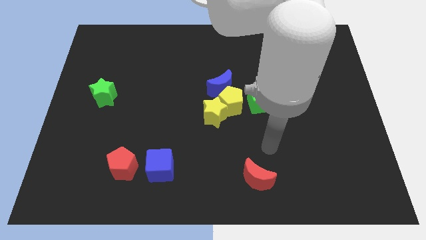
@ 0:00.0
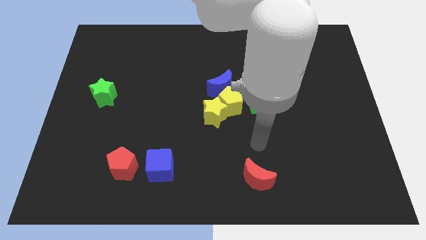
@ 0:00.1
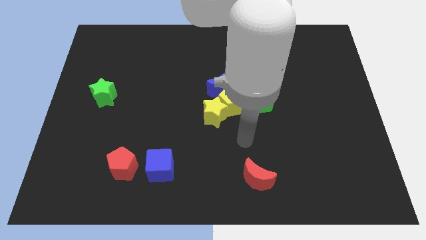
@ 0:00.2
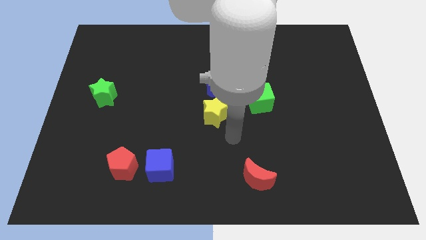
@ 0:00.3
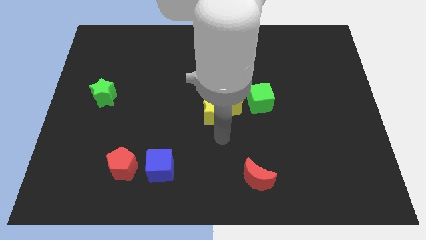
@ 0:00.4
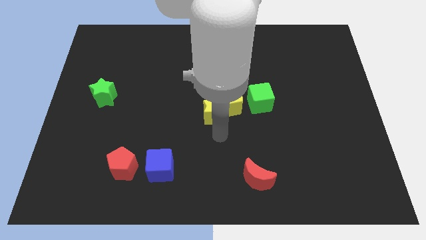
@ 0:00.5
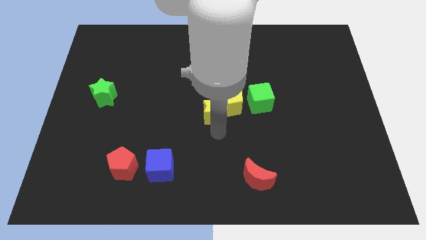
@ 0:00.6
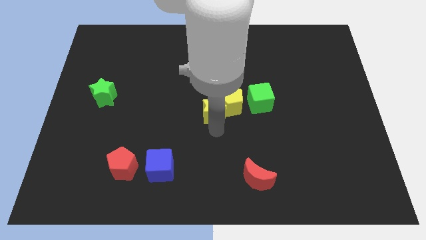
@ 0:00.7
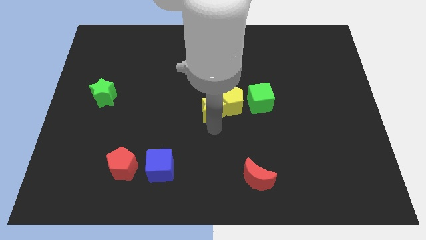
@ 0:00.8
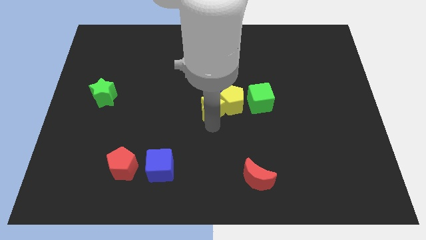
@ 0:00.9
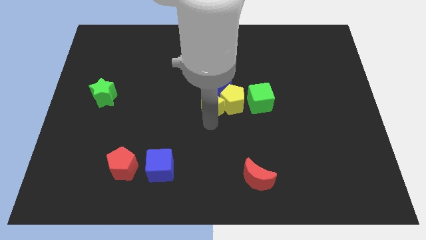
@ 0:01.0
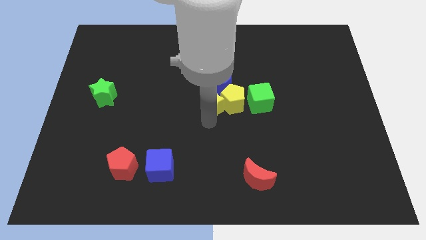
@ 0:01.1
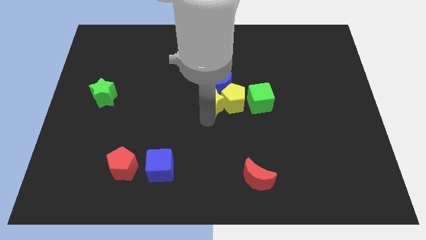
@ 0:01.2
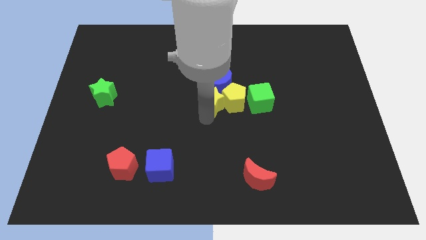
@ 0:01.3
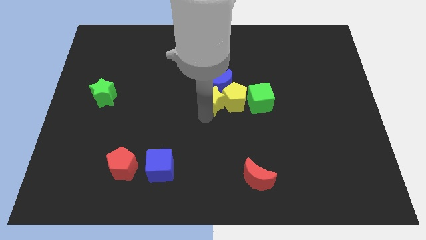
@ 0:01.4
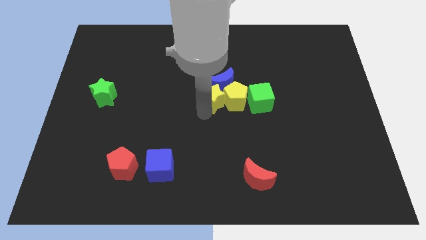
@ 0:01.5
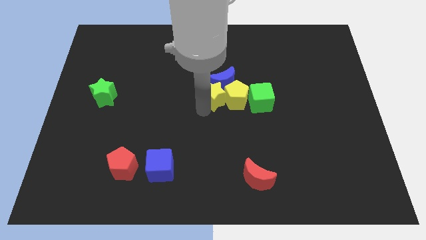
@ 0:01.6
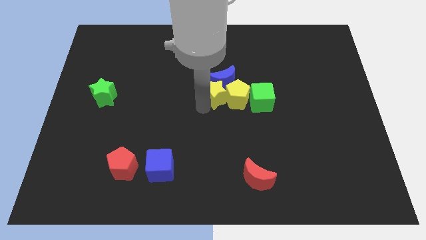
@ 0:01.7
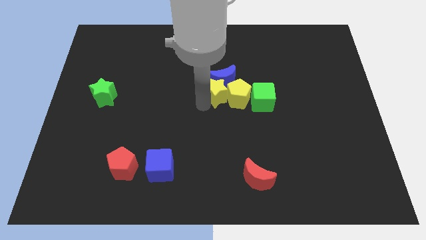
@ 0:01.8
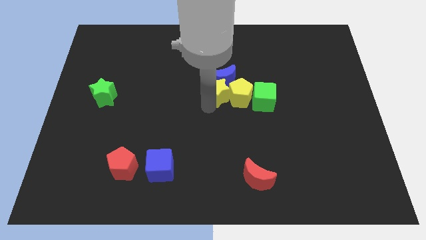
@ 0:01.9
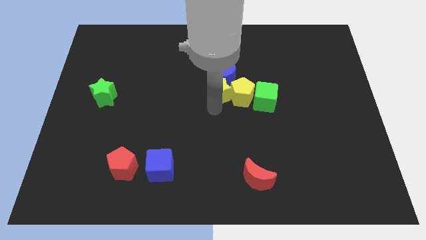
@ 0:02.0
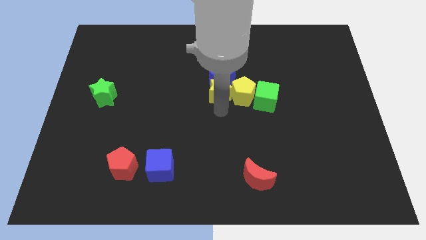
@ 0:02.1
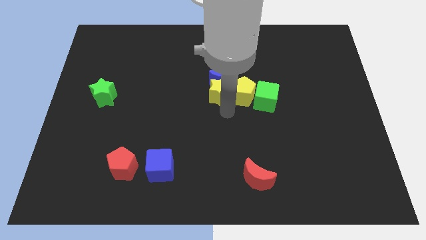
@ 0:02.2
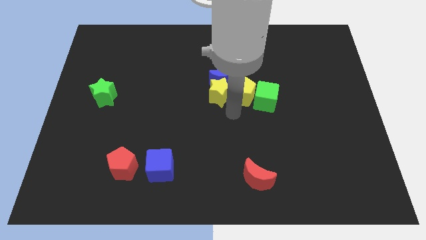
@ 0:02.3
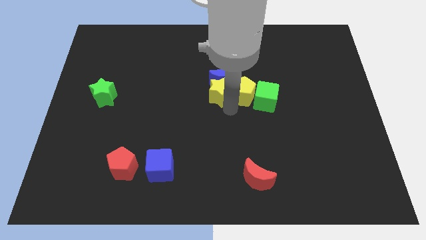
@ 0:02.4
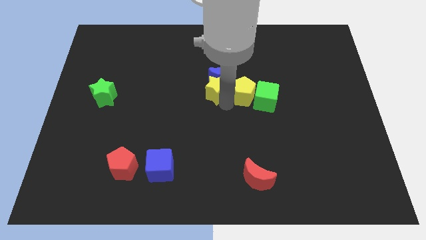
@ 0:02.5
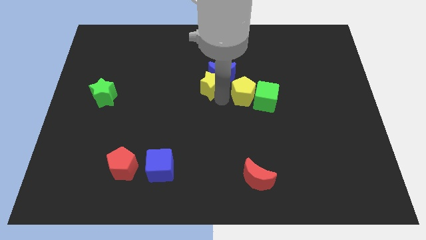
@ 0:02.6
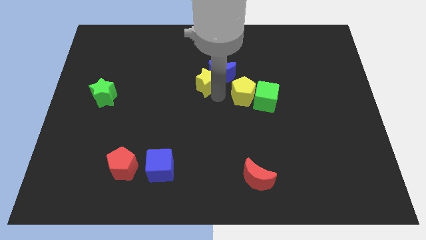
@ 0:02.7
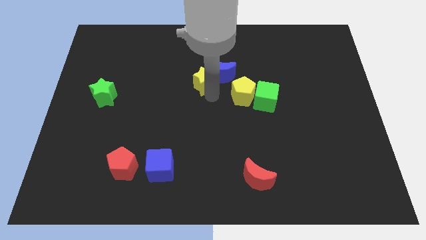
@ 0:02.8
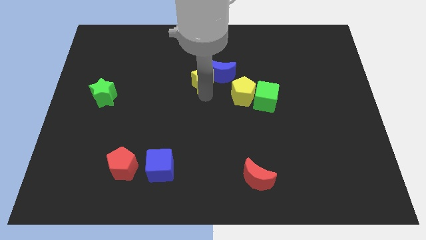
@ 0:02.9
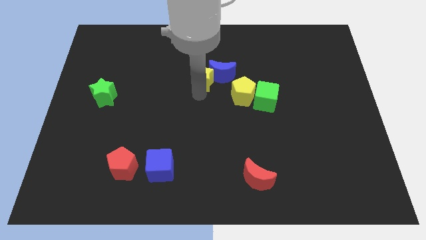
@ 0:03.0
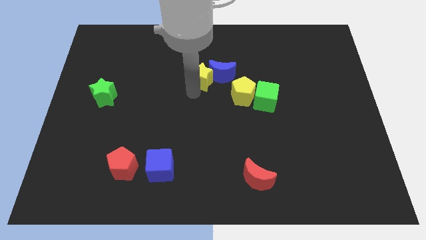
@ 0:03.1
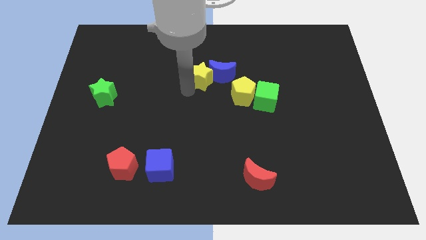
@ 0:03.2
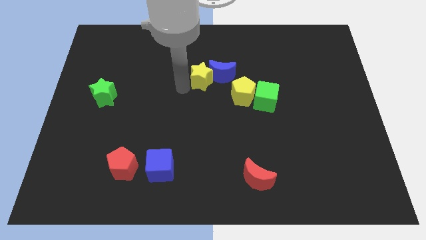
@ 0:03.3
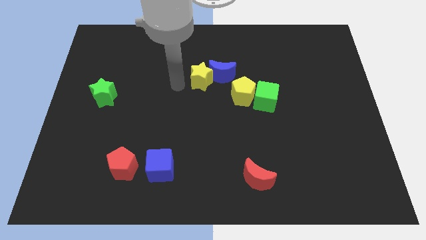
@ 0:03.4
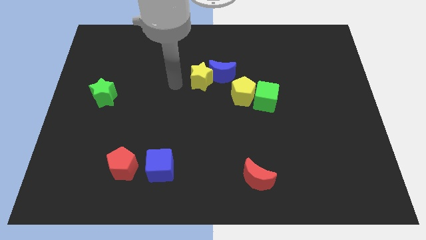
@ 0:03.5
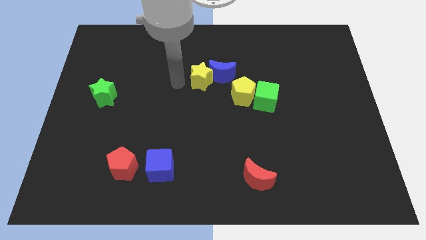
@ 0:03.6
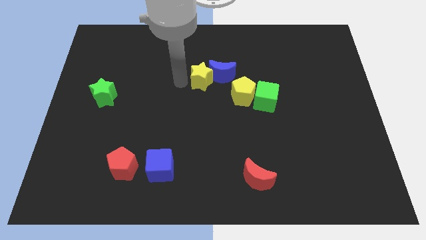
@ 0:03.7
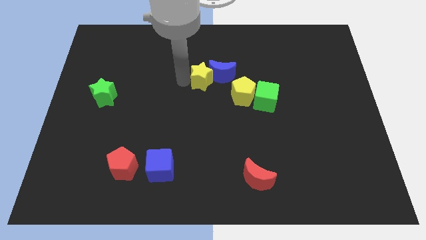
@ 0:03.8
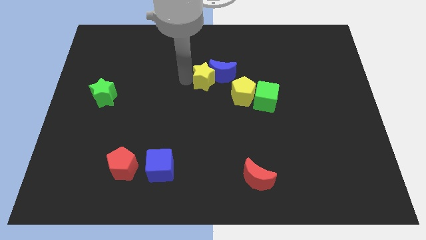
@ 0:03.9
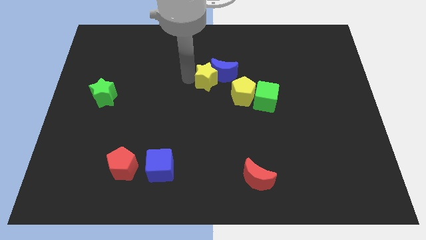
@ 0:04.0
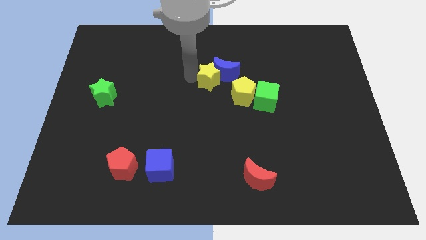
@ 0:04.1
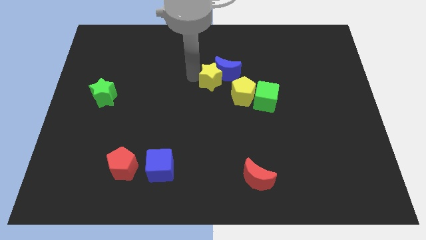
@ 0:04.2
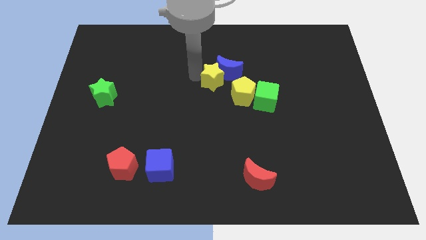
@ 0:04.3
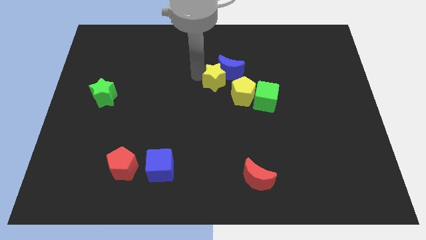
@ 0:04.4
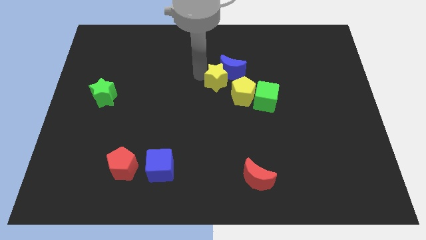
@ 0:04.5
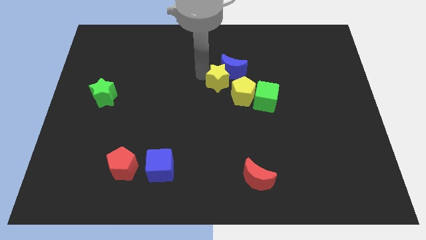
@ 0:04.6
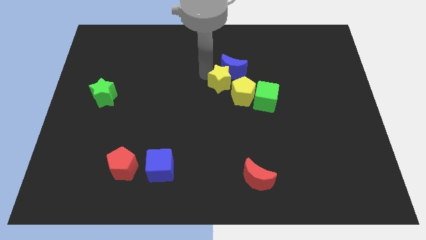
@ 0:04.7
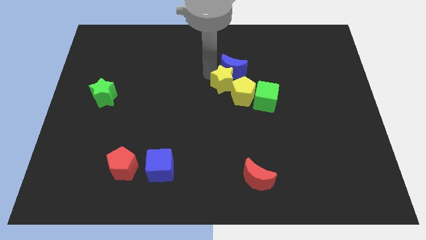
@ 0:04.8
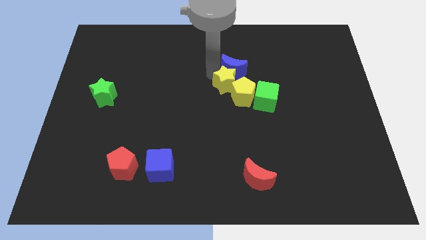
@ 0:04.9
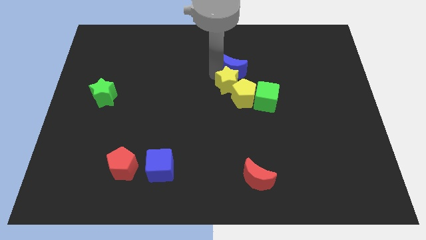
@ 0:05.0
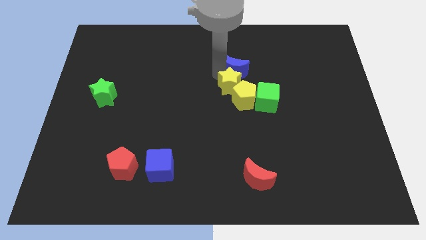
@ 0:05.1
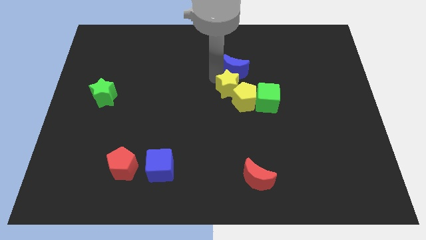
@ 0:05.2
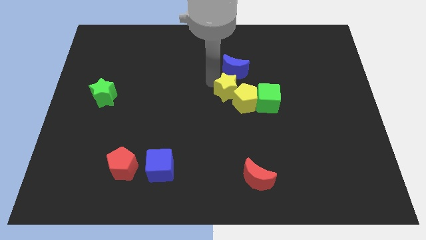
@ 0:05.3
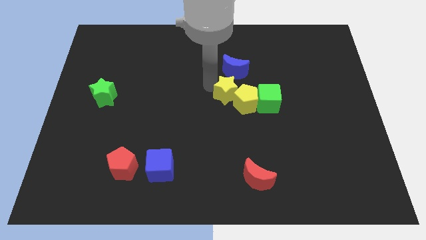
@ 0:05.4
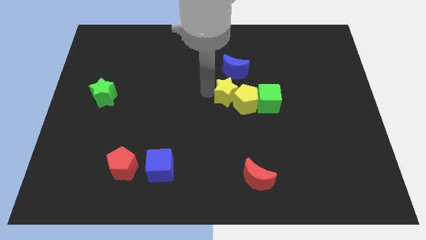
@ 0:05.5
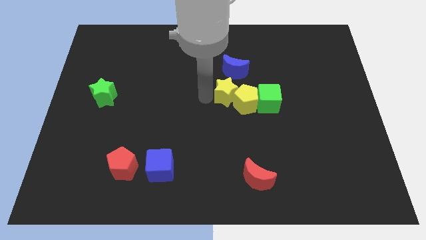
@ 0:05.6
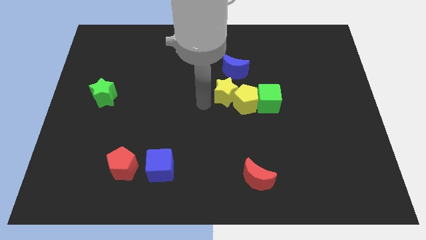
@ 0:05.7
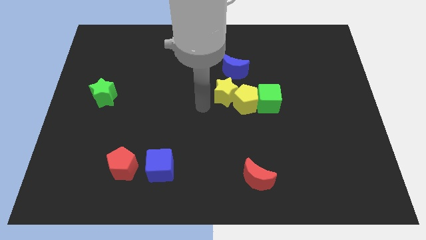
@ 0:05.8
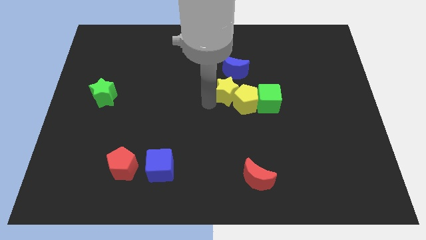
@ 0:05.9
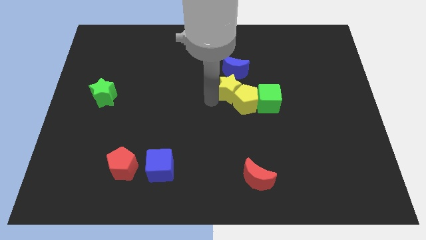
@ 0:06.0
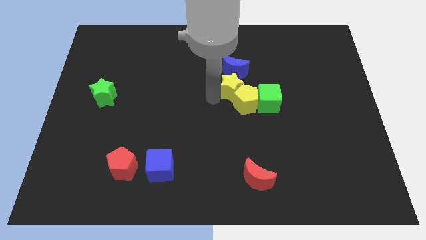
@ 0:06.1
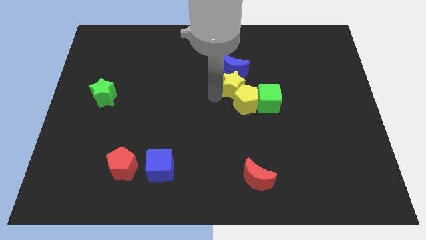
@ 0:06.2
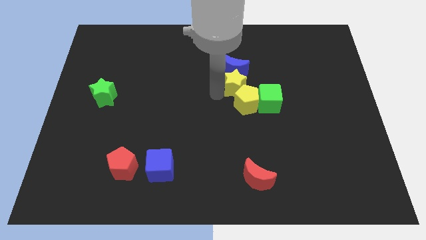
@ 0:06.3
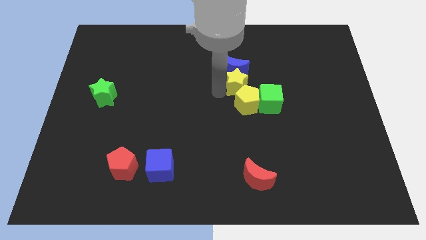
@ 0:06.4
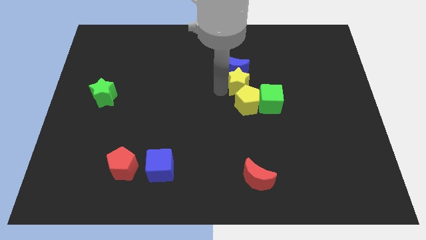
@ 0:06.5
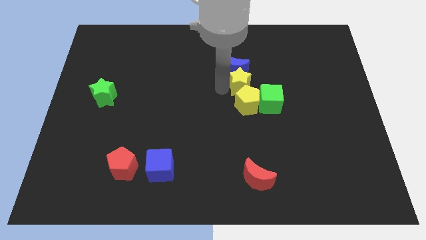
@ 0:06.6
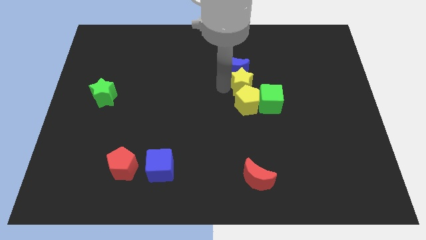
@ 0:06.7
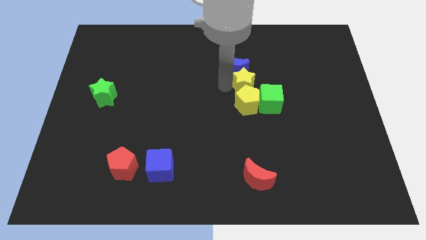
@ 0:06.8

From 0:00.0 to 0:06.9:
slide the yellow star to the top right side of the yellow pentagon

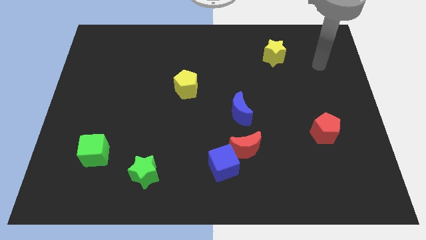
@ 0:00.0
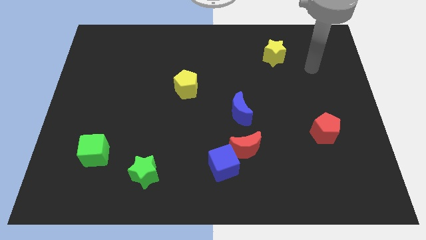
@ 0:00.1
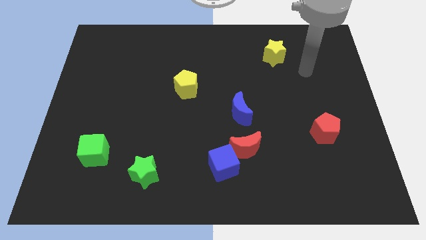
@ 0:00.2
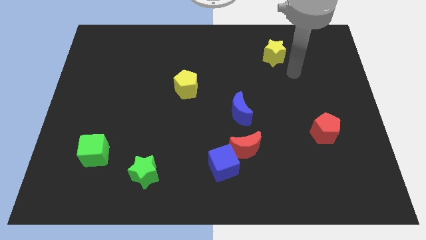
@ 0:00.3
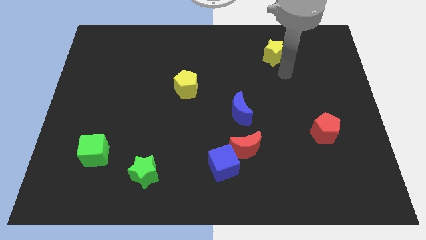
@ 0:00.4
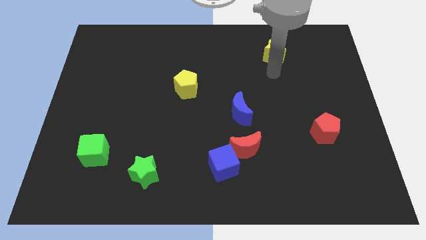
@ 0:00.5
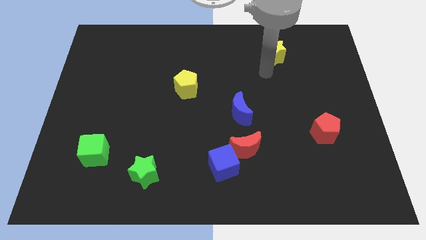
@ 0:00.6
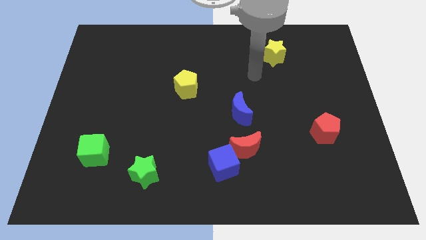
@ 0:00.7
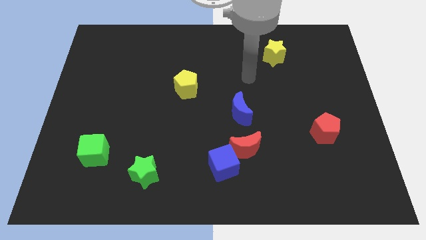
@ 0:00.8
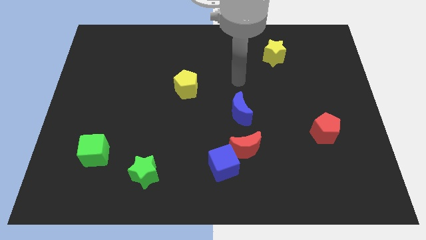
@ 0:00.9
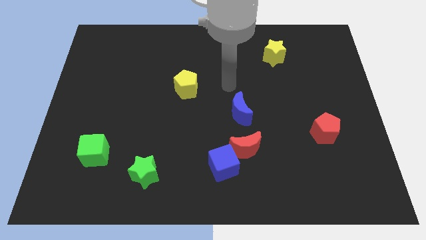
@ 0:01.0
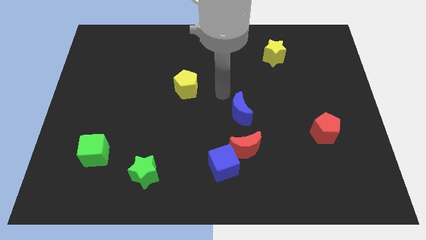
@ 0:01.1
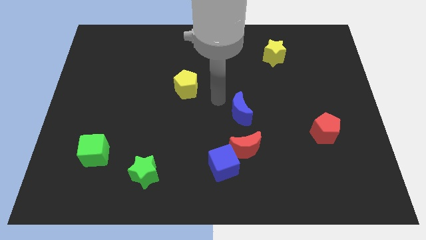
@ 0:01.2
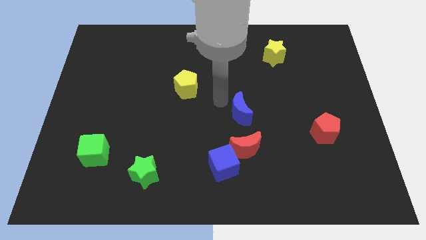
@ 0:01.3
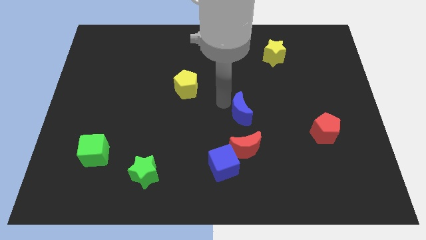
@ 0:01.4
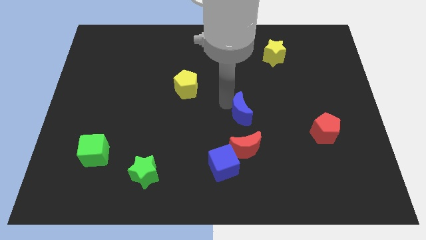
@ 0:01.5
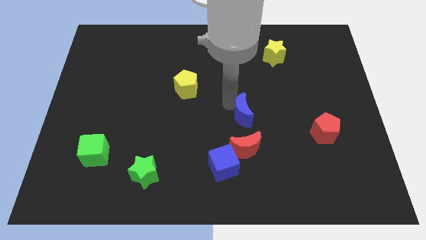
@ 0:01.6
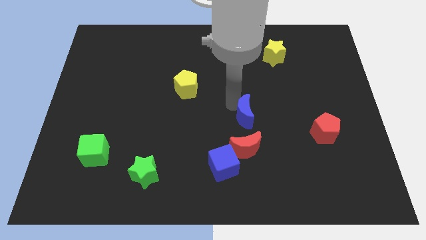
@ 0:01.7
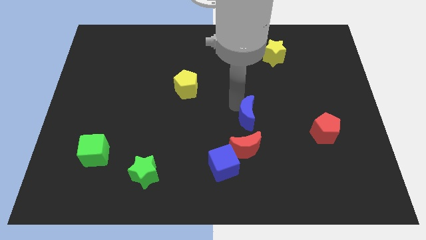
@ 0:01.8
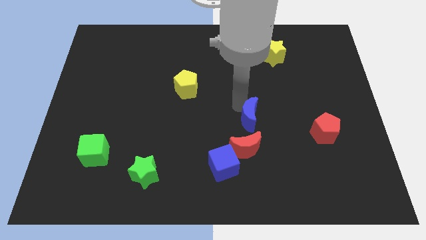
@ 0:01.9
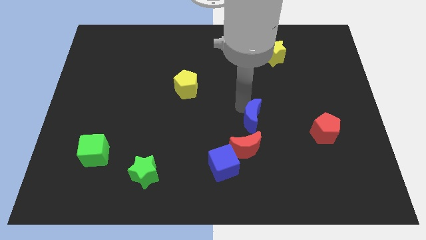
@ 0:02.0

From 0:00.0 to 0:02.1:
put the blue moon to the top right of the red moon
